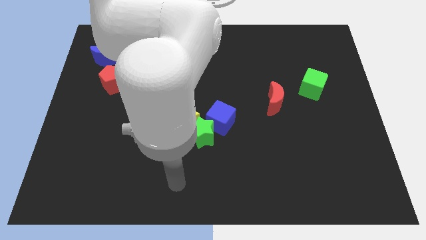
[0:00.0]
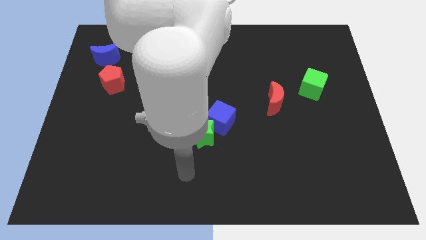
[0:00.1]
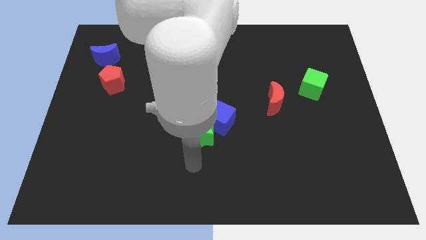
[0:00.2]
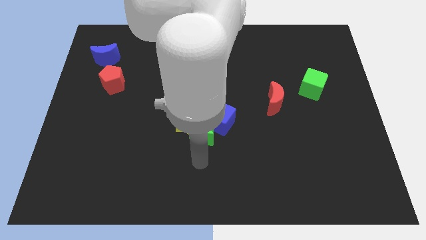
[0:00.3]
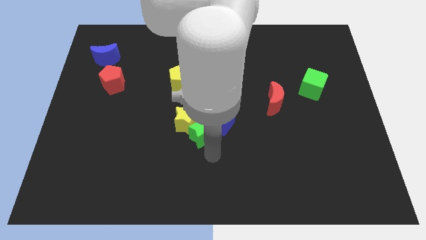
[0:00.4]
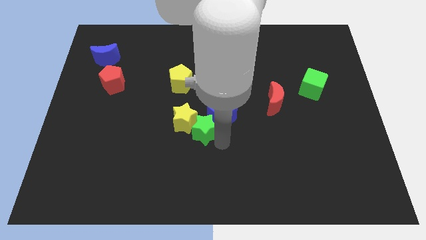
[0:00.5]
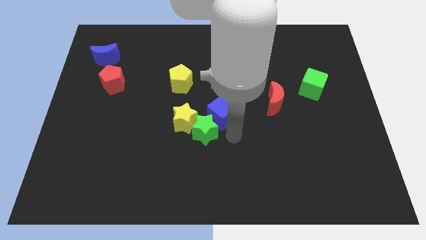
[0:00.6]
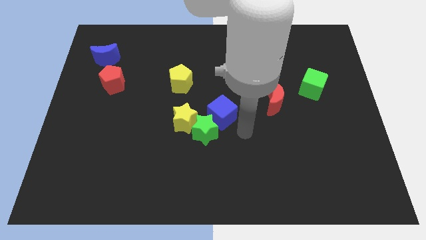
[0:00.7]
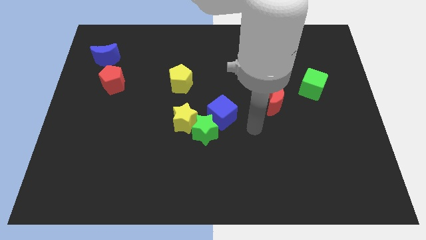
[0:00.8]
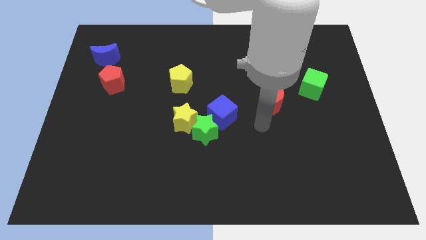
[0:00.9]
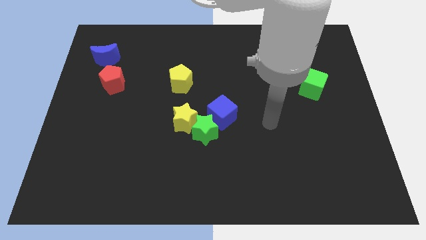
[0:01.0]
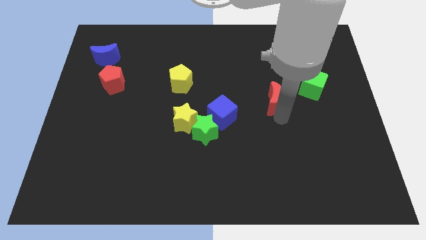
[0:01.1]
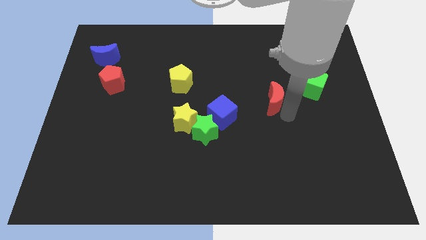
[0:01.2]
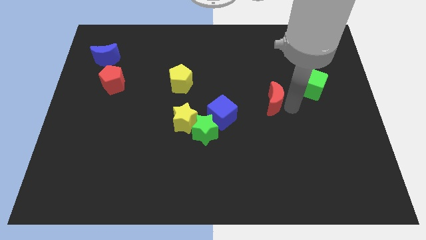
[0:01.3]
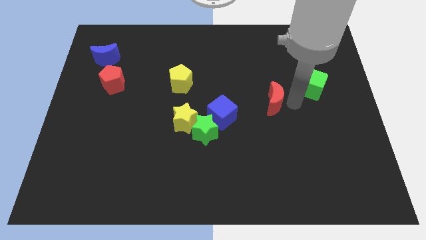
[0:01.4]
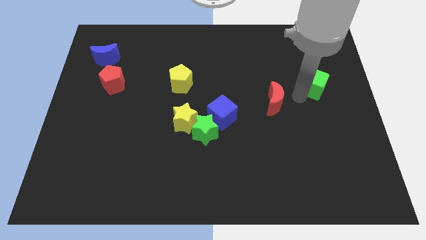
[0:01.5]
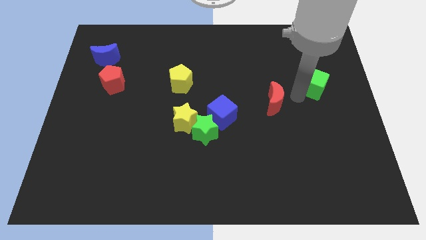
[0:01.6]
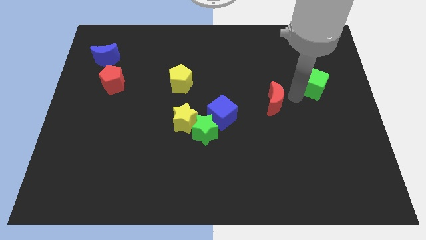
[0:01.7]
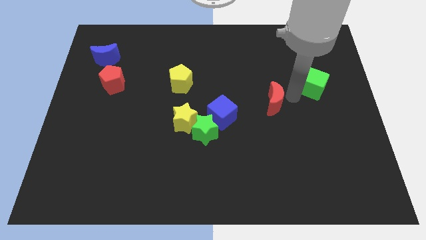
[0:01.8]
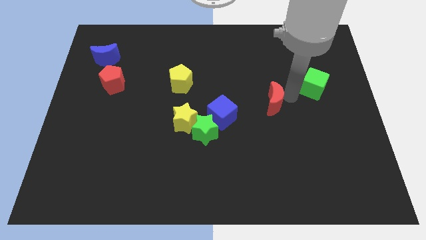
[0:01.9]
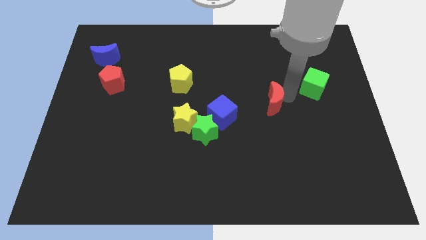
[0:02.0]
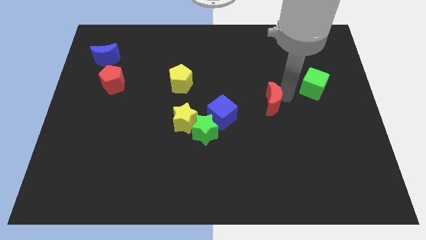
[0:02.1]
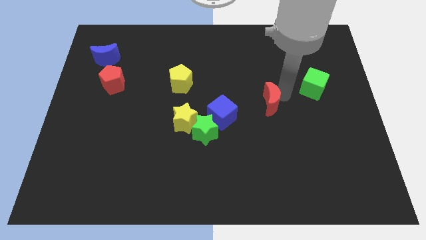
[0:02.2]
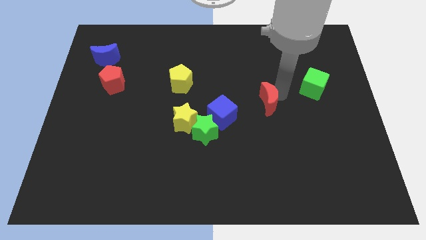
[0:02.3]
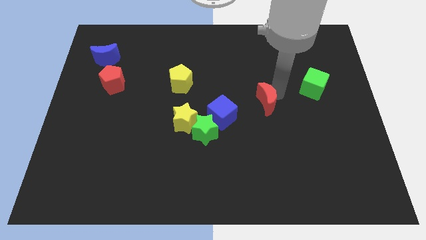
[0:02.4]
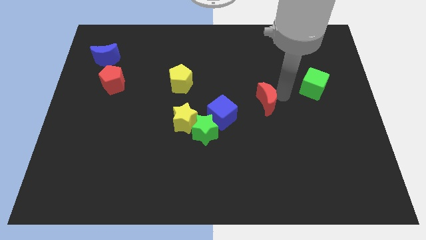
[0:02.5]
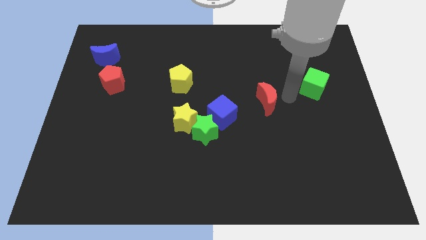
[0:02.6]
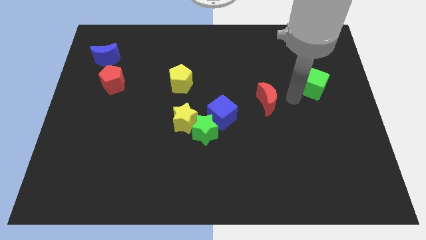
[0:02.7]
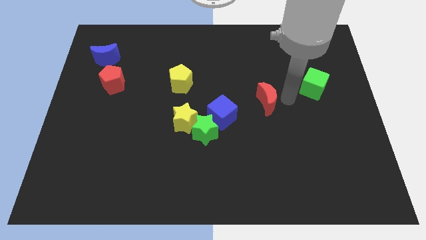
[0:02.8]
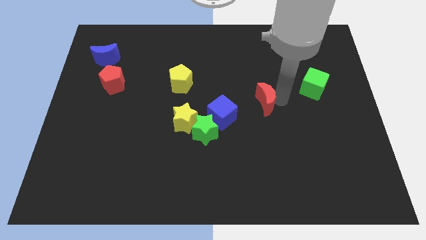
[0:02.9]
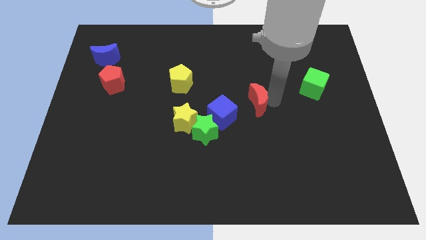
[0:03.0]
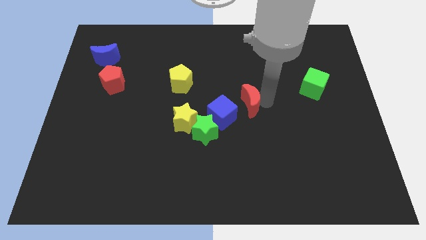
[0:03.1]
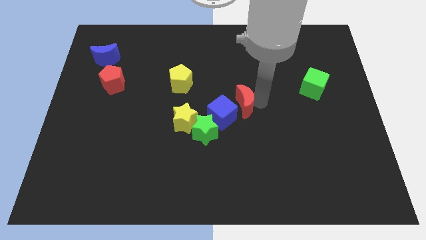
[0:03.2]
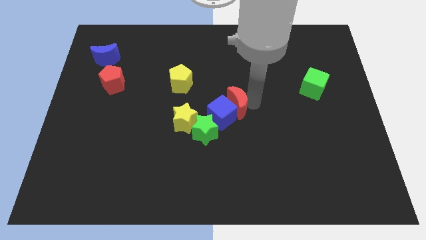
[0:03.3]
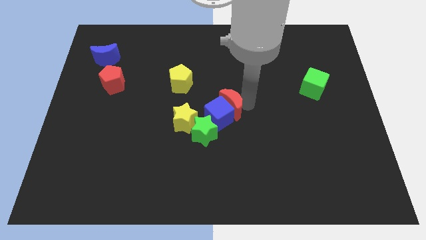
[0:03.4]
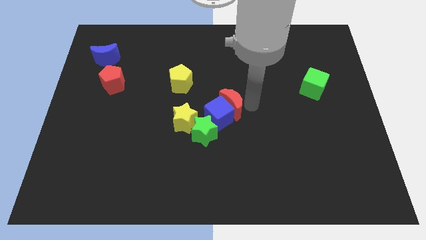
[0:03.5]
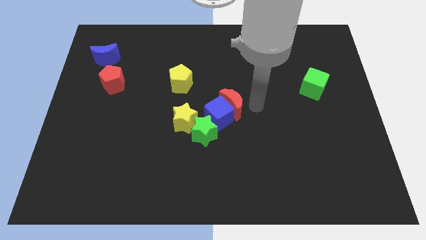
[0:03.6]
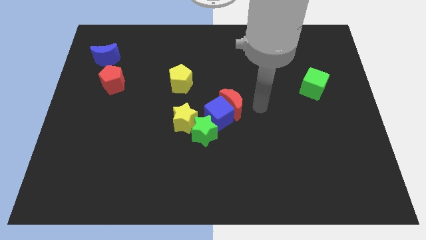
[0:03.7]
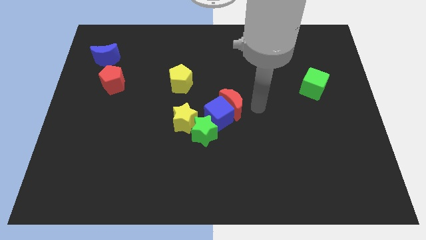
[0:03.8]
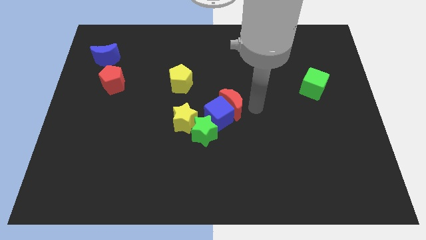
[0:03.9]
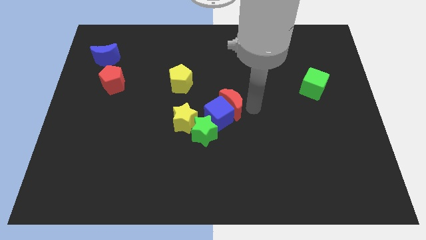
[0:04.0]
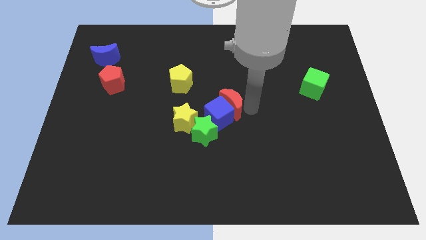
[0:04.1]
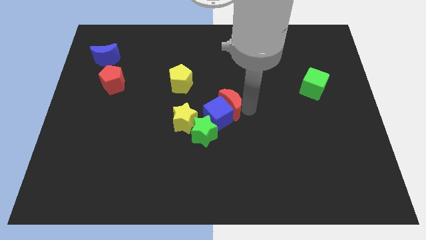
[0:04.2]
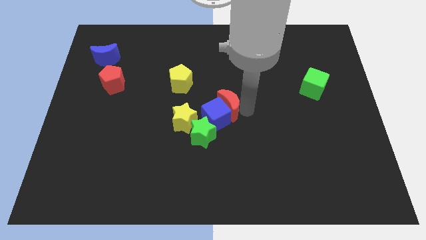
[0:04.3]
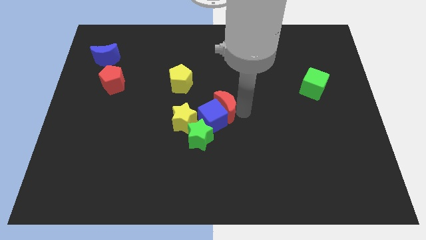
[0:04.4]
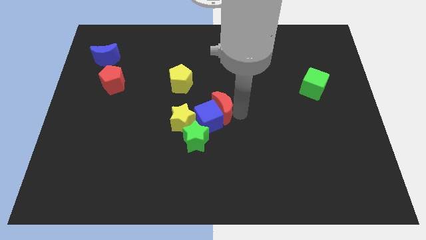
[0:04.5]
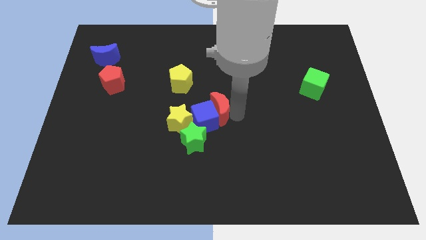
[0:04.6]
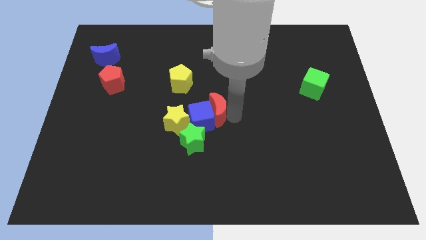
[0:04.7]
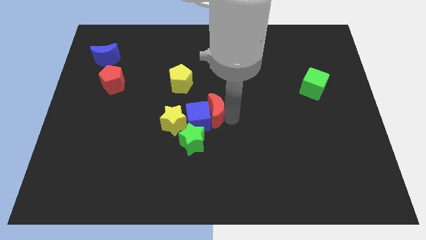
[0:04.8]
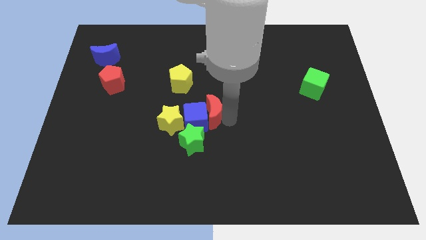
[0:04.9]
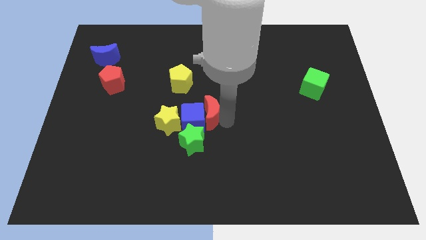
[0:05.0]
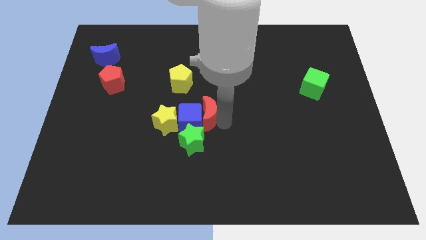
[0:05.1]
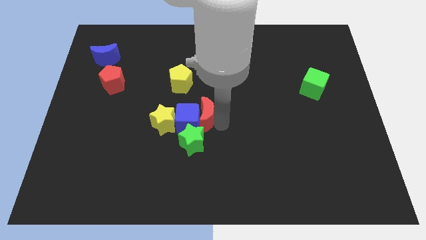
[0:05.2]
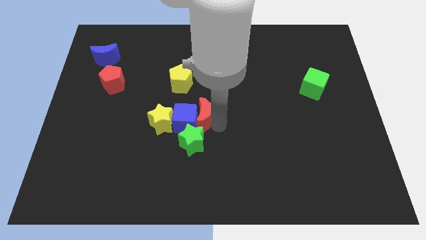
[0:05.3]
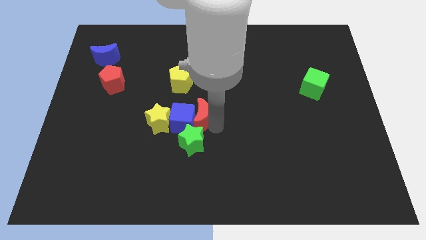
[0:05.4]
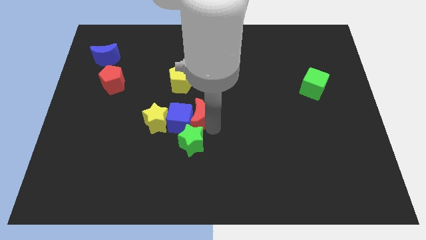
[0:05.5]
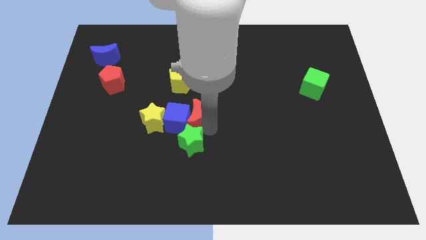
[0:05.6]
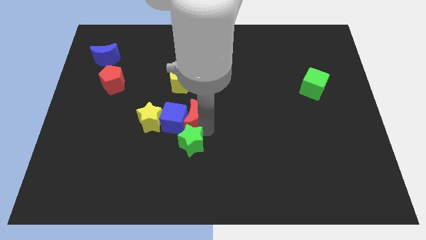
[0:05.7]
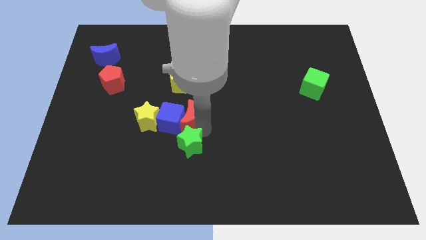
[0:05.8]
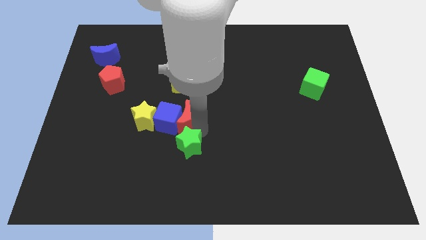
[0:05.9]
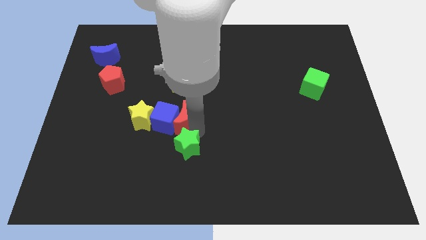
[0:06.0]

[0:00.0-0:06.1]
move the red moon to the left

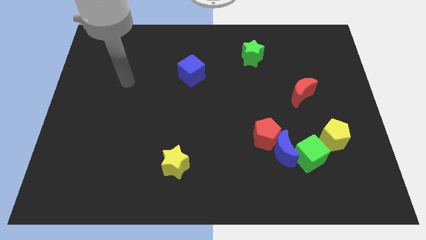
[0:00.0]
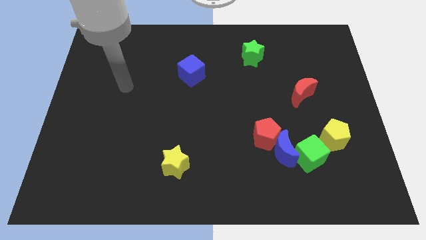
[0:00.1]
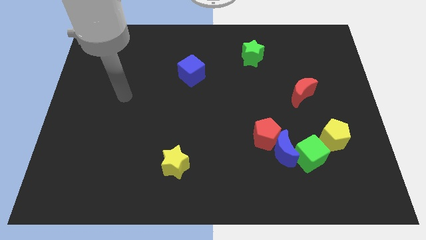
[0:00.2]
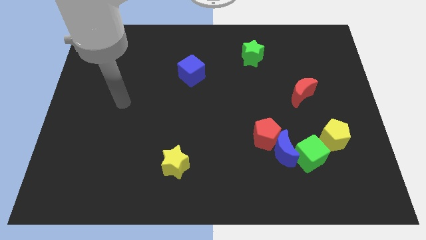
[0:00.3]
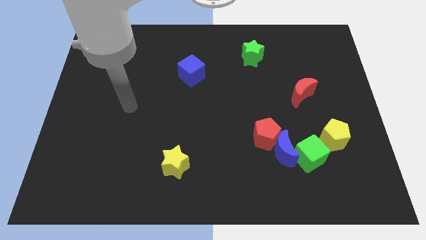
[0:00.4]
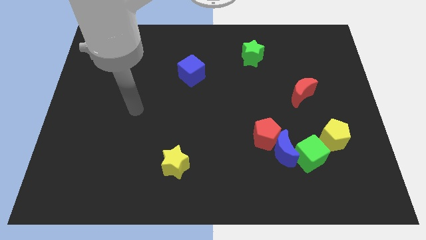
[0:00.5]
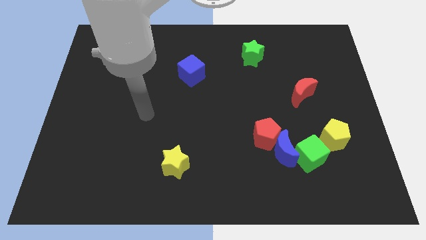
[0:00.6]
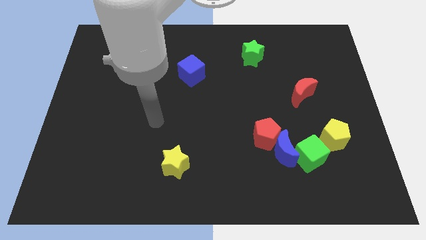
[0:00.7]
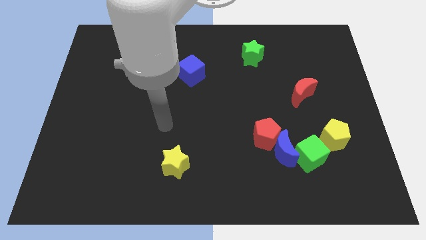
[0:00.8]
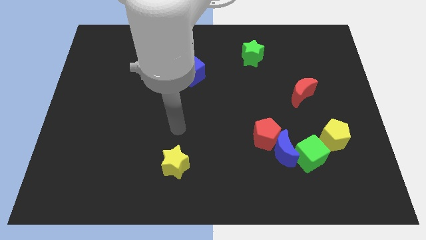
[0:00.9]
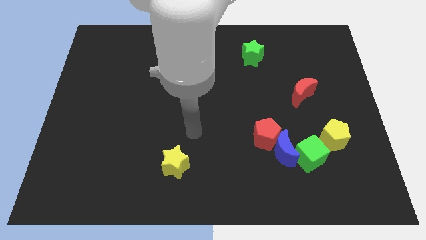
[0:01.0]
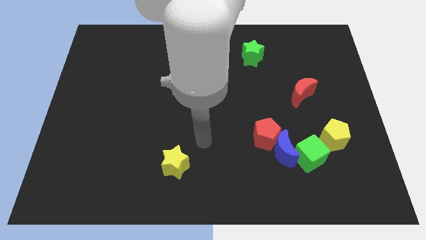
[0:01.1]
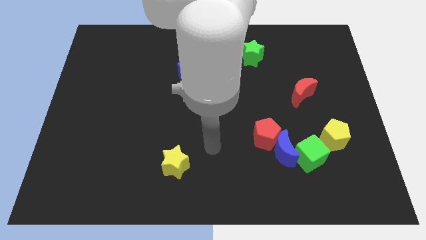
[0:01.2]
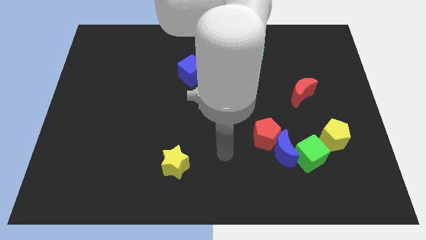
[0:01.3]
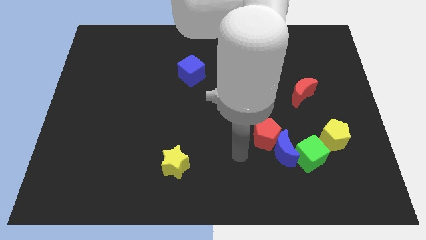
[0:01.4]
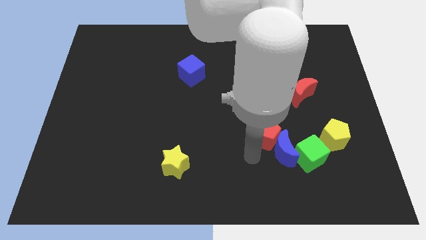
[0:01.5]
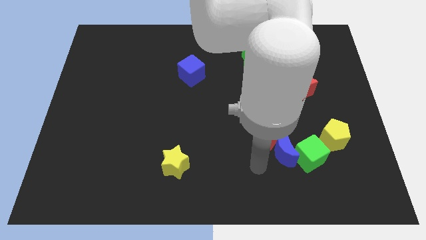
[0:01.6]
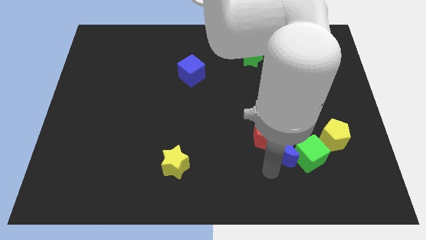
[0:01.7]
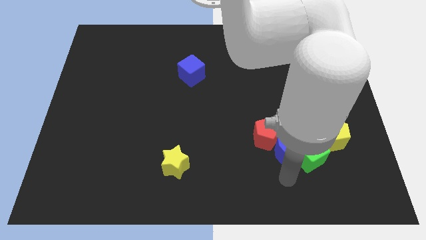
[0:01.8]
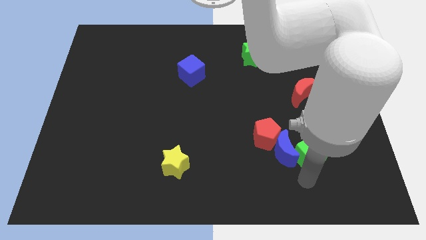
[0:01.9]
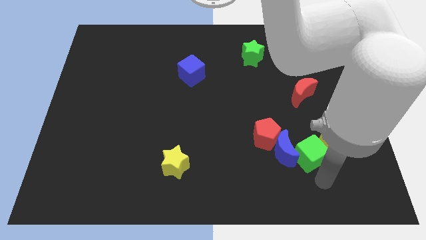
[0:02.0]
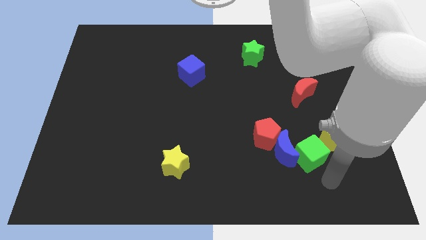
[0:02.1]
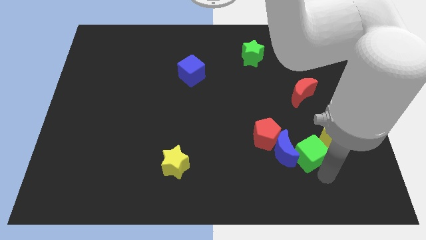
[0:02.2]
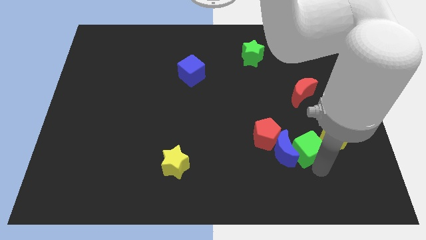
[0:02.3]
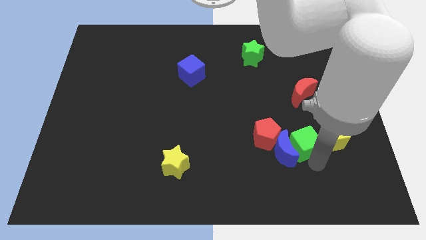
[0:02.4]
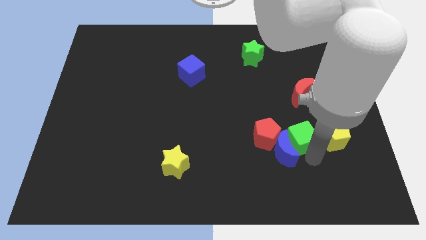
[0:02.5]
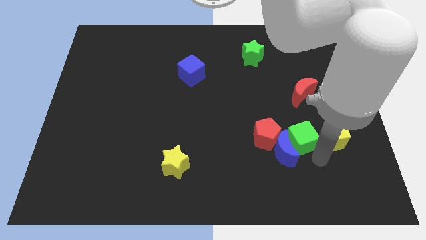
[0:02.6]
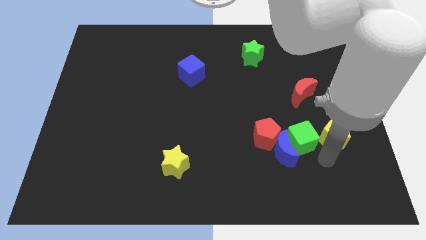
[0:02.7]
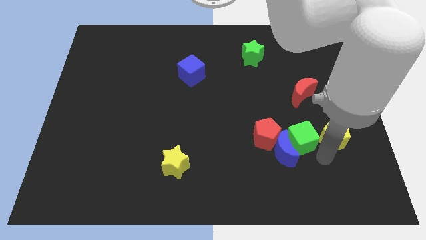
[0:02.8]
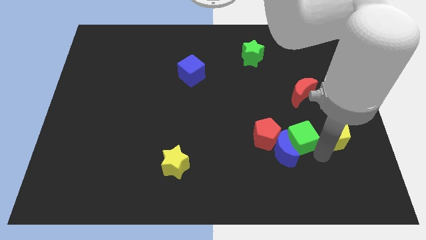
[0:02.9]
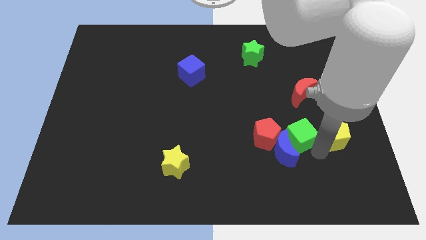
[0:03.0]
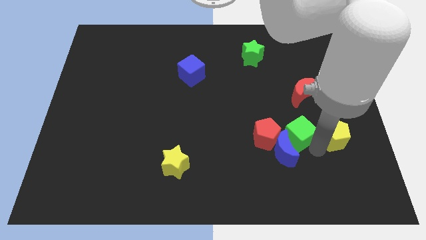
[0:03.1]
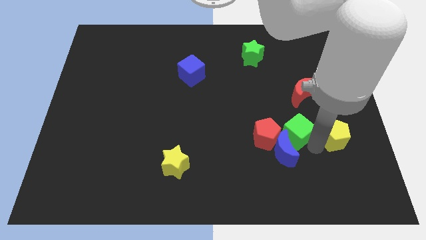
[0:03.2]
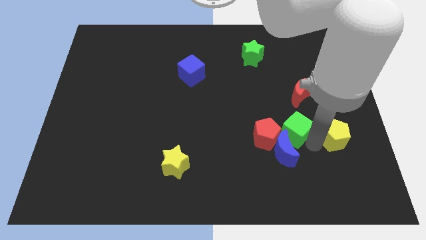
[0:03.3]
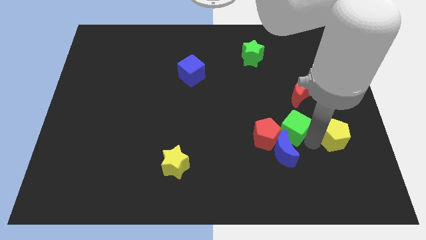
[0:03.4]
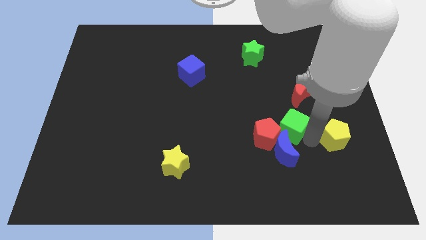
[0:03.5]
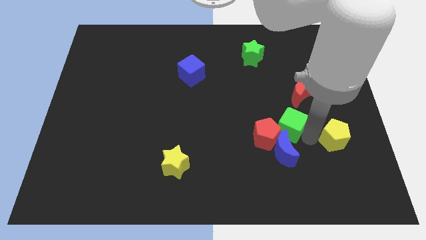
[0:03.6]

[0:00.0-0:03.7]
slide the green cube diagonally up and to the left a little bit
